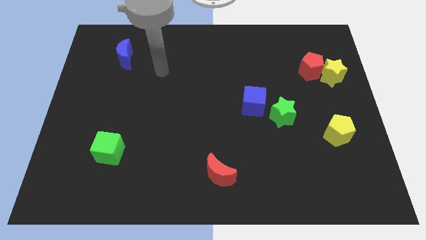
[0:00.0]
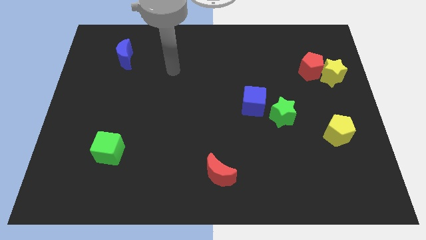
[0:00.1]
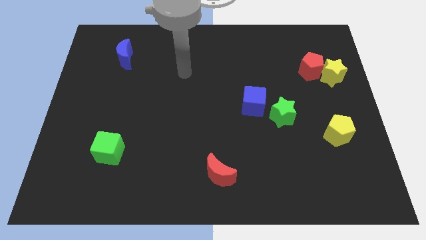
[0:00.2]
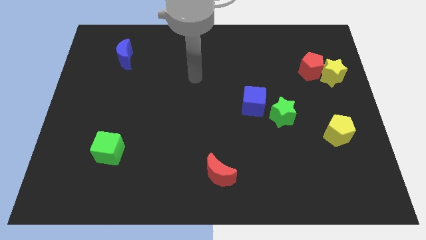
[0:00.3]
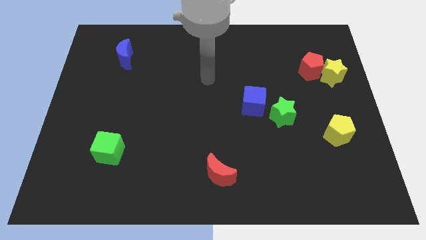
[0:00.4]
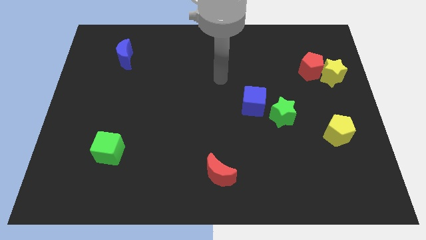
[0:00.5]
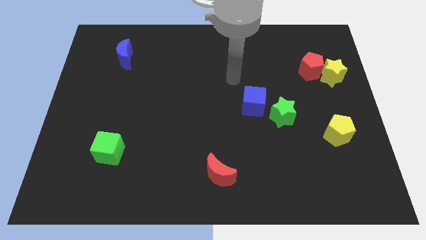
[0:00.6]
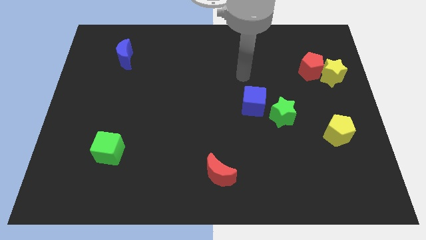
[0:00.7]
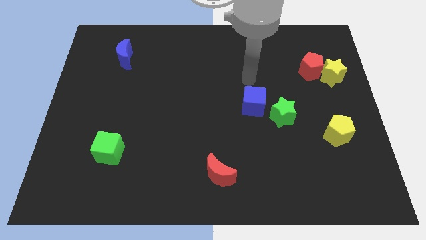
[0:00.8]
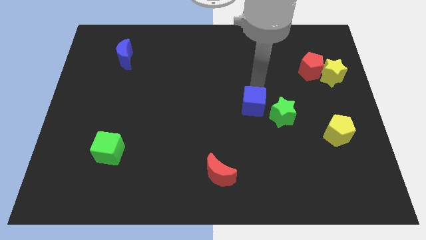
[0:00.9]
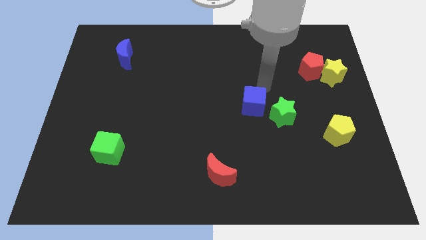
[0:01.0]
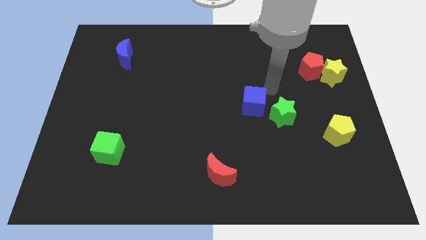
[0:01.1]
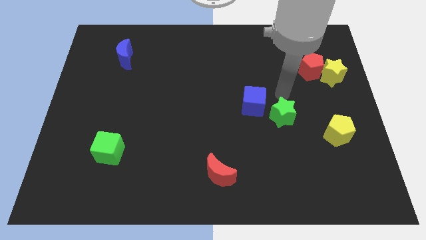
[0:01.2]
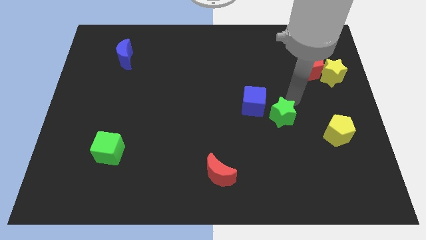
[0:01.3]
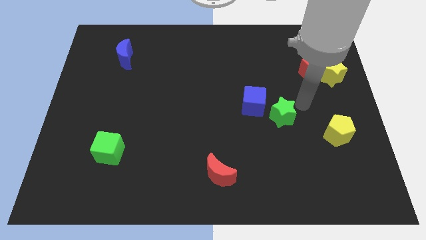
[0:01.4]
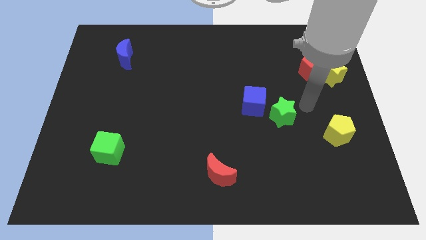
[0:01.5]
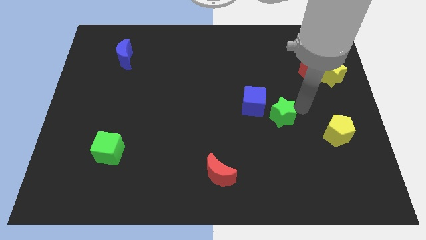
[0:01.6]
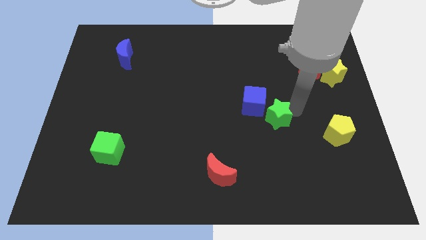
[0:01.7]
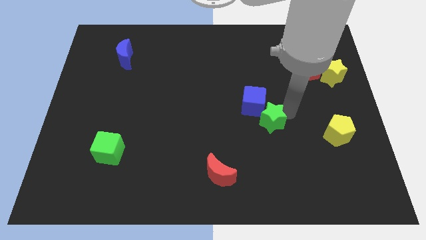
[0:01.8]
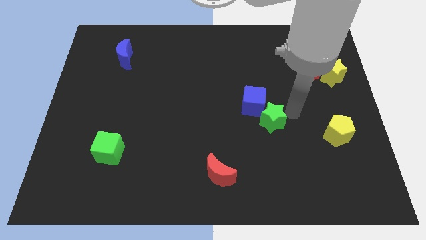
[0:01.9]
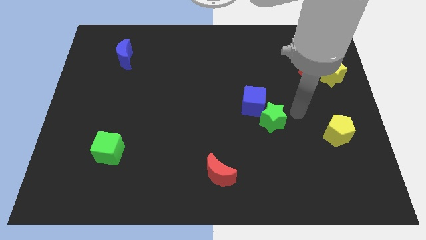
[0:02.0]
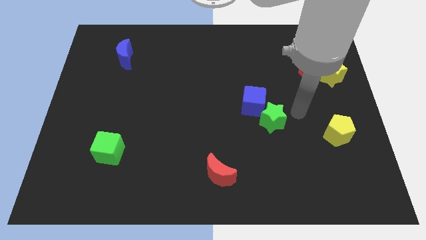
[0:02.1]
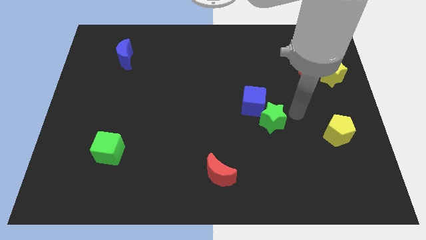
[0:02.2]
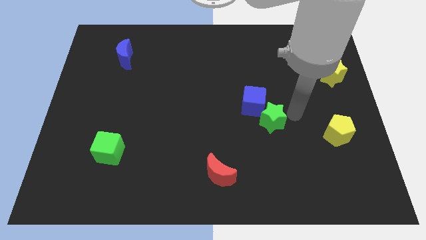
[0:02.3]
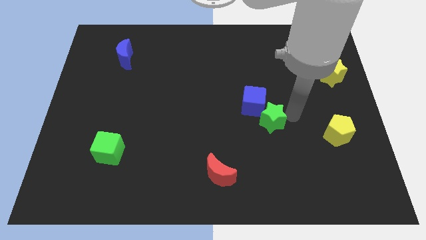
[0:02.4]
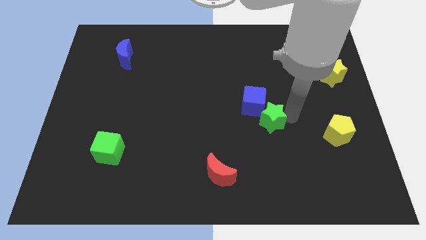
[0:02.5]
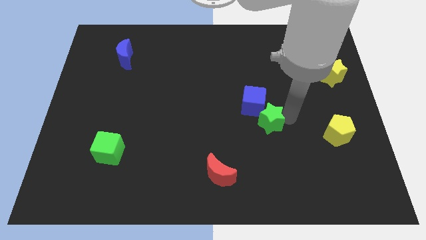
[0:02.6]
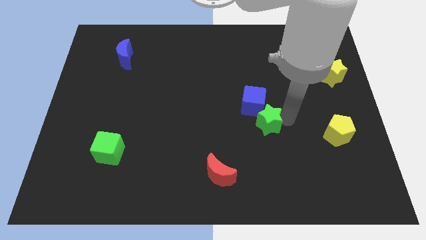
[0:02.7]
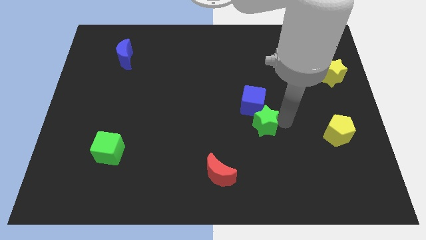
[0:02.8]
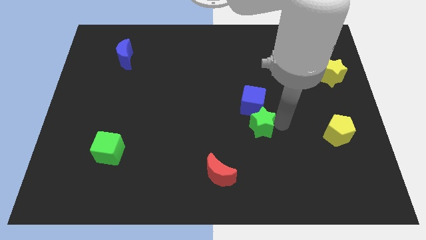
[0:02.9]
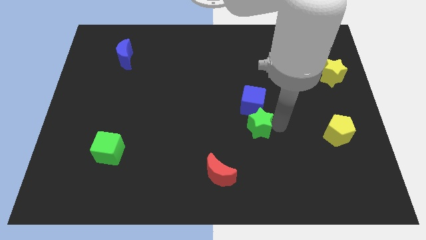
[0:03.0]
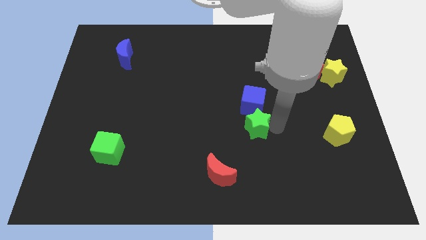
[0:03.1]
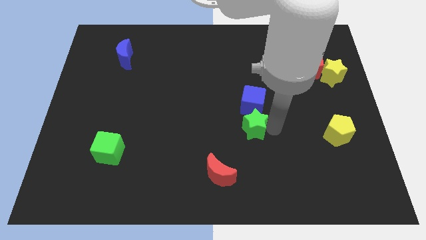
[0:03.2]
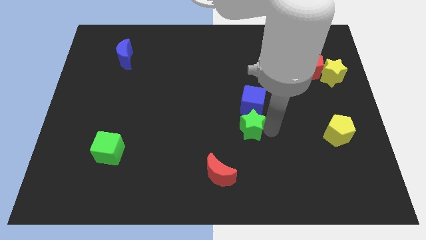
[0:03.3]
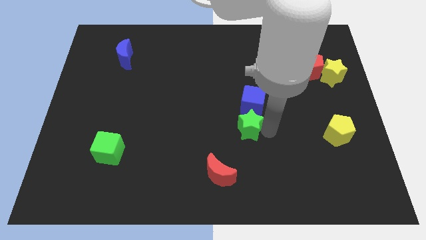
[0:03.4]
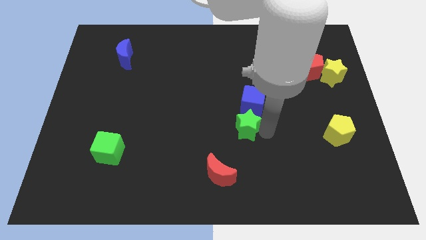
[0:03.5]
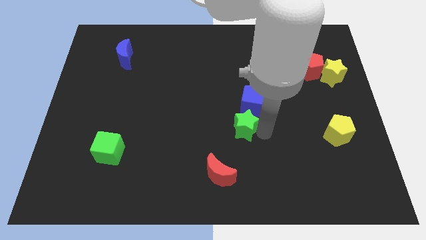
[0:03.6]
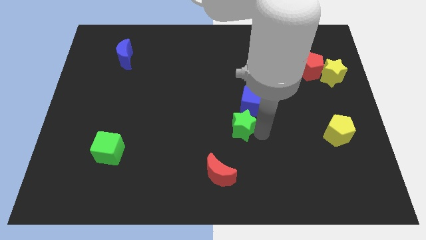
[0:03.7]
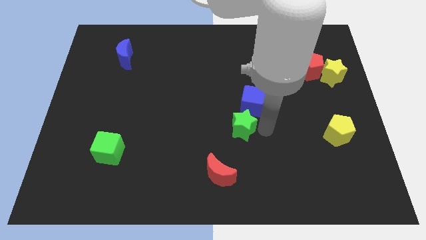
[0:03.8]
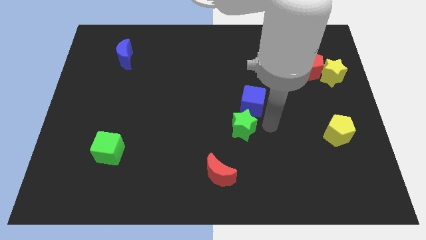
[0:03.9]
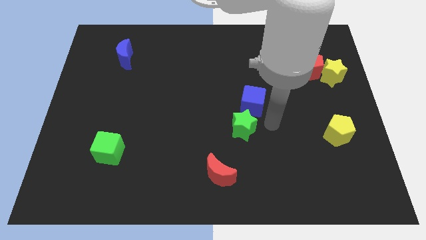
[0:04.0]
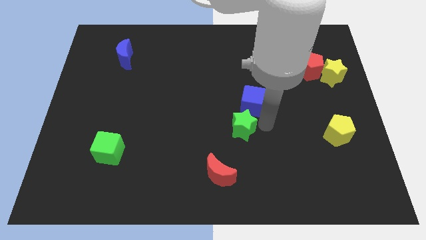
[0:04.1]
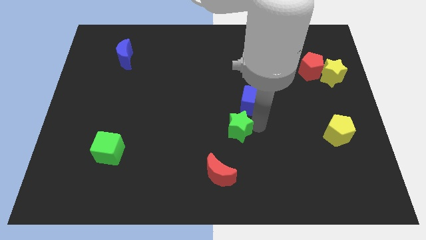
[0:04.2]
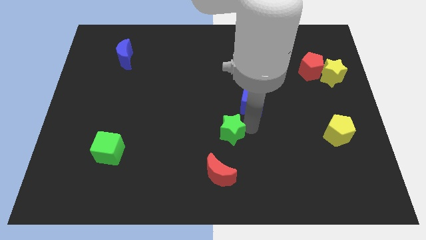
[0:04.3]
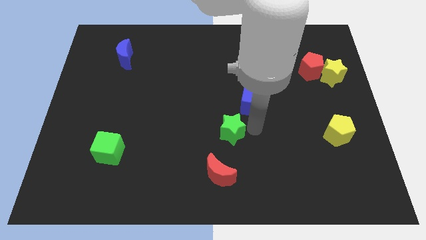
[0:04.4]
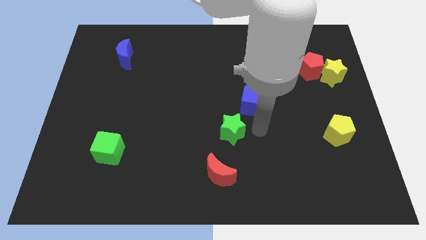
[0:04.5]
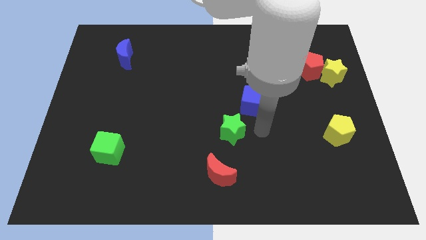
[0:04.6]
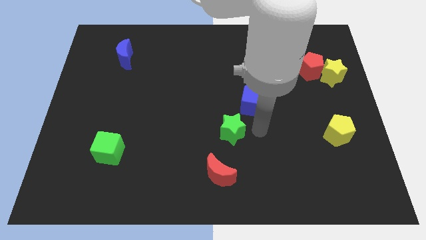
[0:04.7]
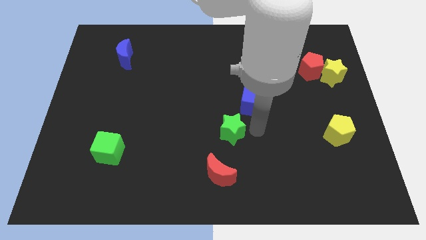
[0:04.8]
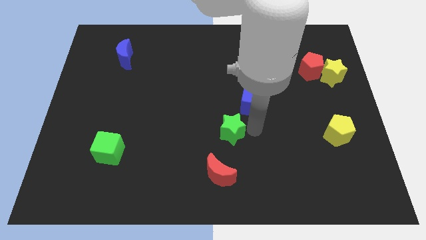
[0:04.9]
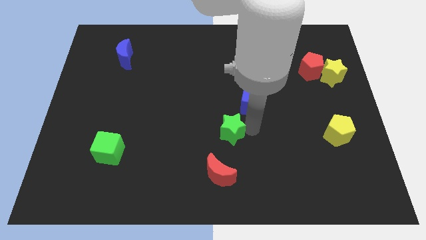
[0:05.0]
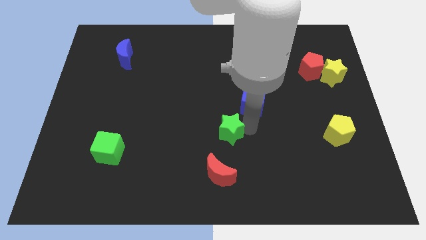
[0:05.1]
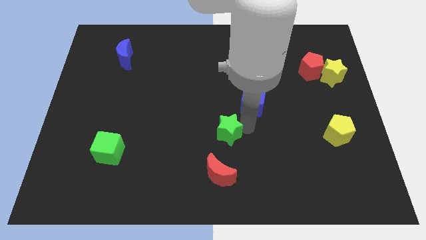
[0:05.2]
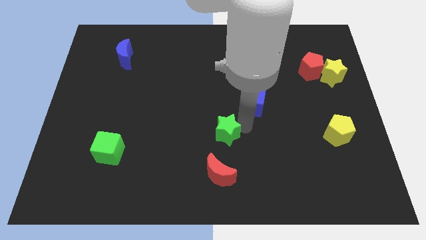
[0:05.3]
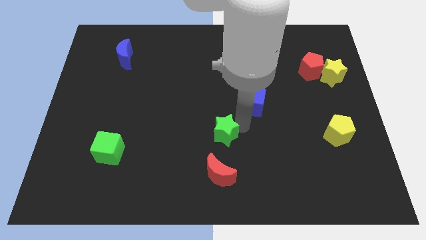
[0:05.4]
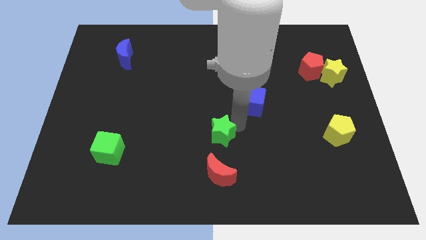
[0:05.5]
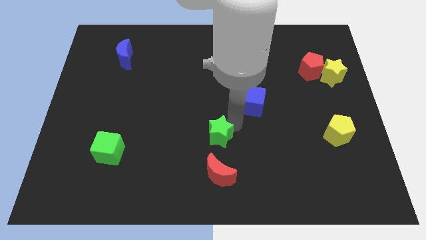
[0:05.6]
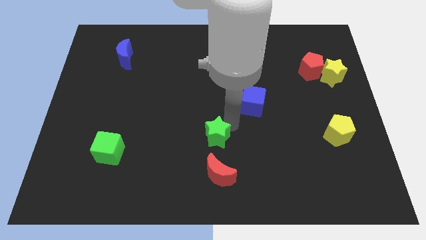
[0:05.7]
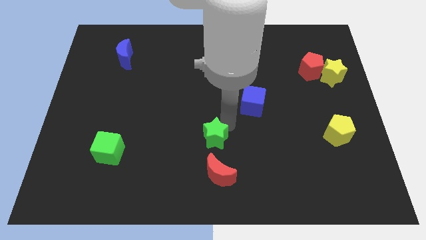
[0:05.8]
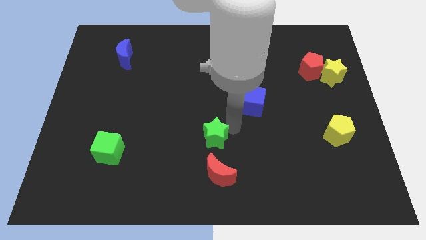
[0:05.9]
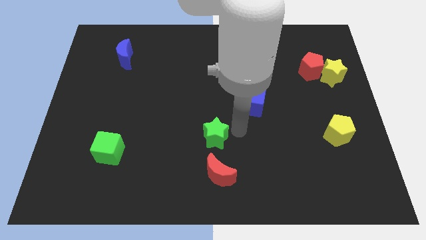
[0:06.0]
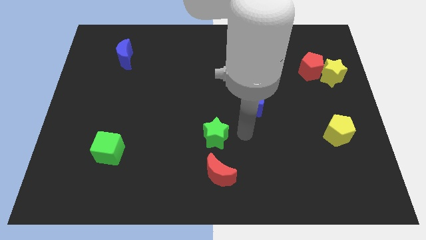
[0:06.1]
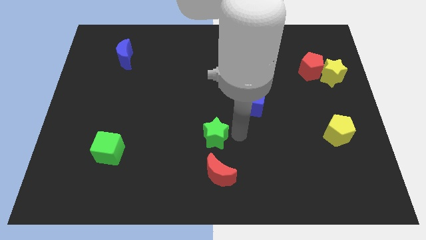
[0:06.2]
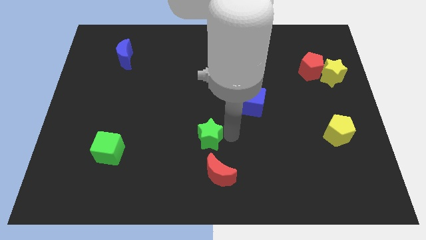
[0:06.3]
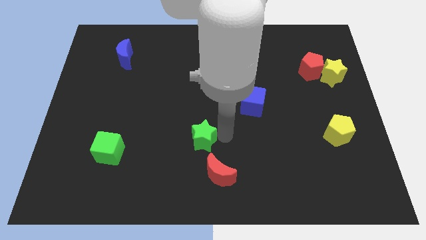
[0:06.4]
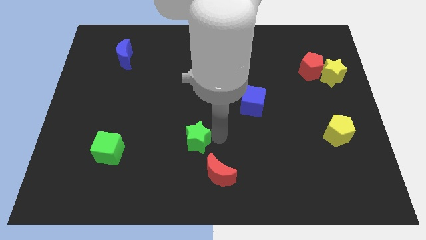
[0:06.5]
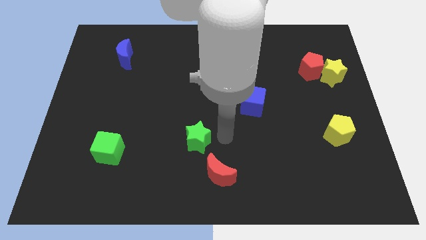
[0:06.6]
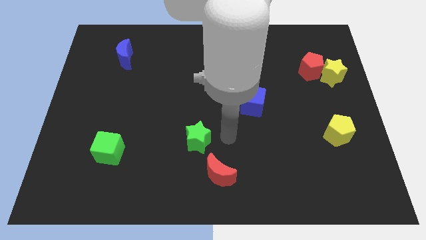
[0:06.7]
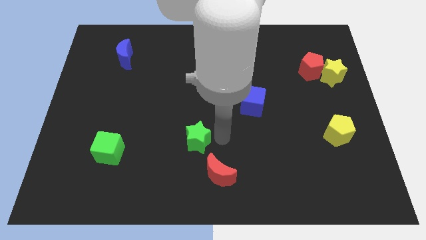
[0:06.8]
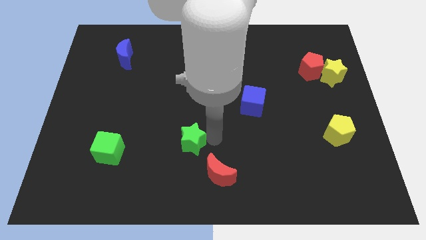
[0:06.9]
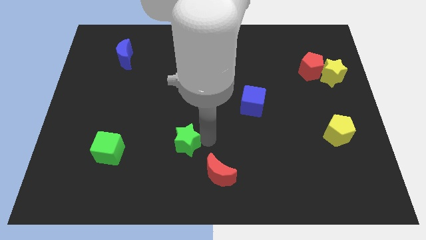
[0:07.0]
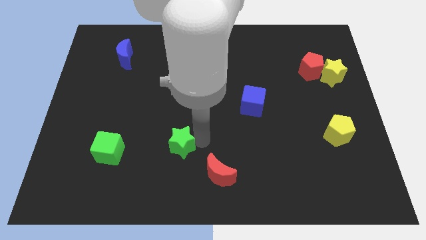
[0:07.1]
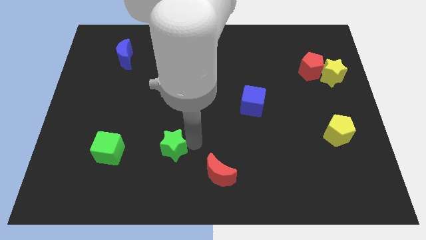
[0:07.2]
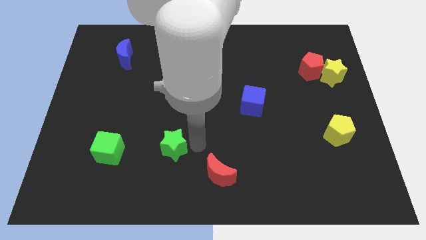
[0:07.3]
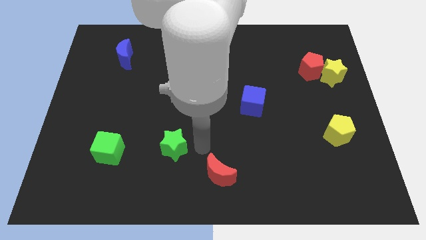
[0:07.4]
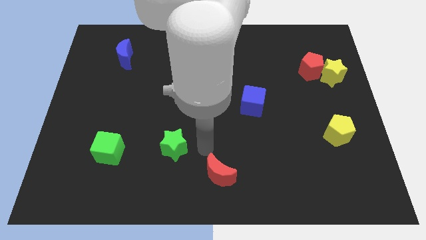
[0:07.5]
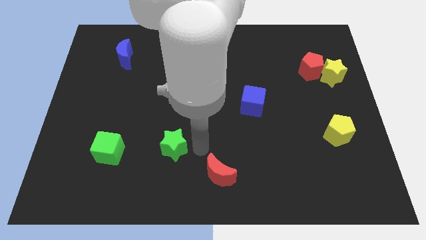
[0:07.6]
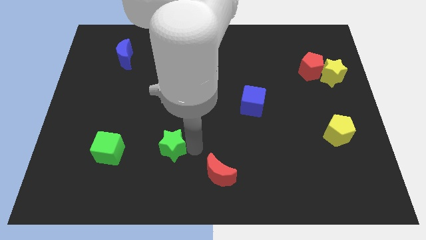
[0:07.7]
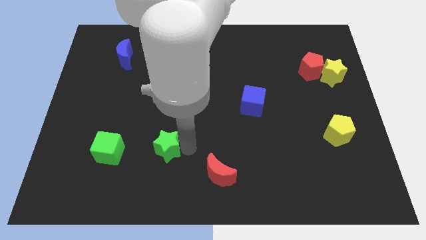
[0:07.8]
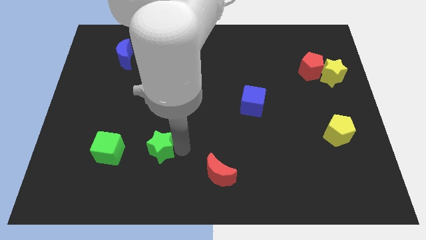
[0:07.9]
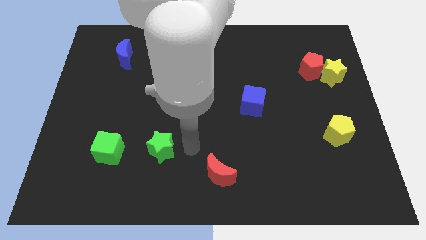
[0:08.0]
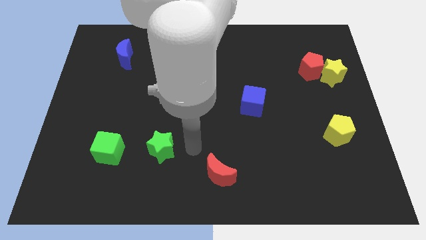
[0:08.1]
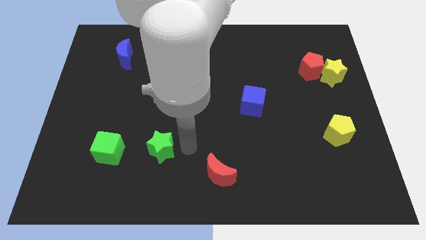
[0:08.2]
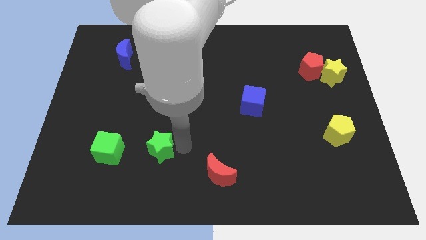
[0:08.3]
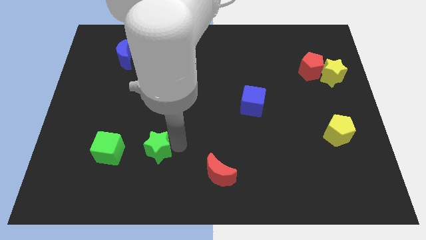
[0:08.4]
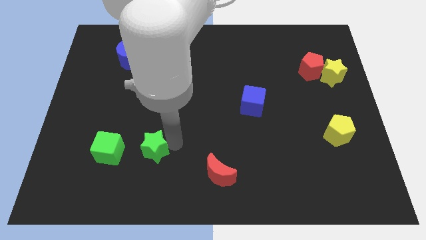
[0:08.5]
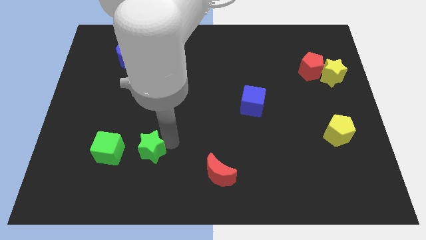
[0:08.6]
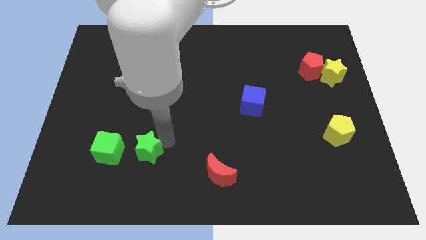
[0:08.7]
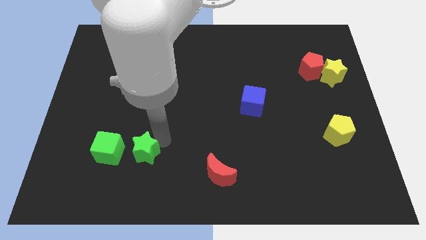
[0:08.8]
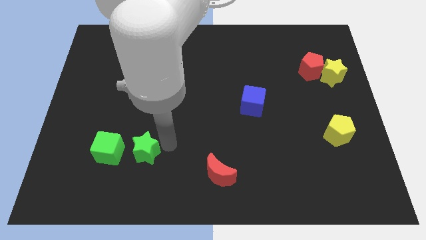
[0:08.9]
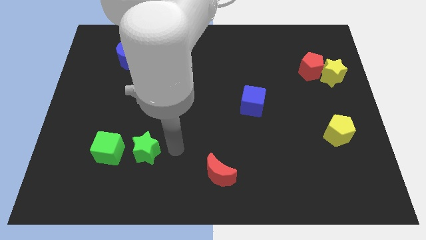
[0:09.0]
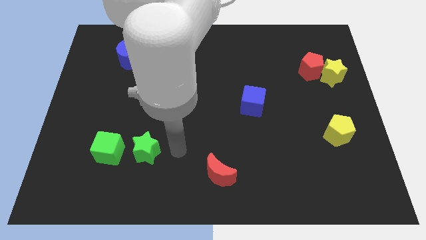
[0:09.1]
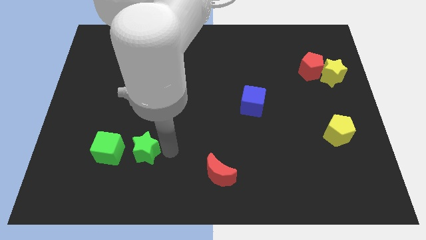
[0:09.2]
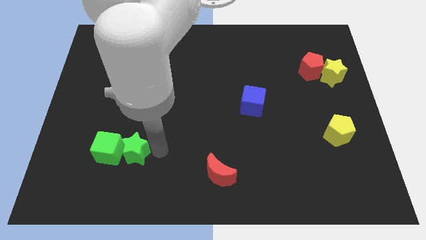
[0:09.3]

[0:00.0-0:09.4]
put the green star next to the green cube
